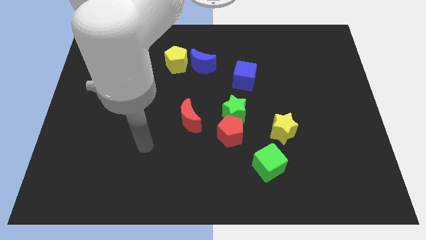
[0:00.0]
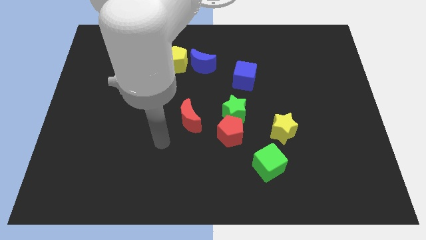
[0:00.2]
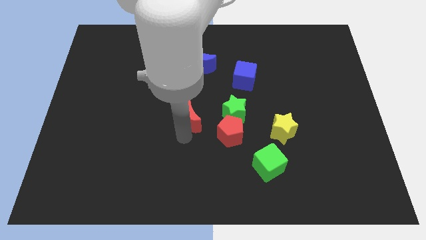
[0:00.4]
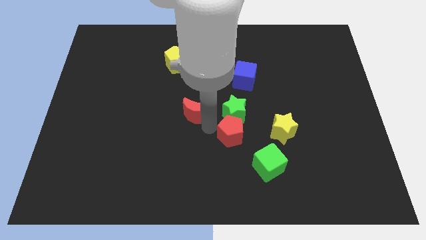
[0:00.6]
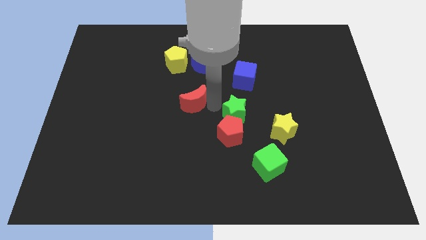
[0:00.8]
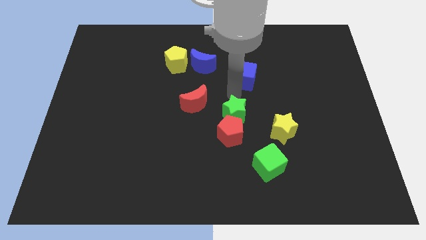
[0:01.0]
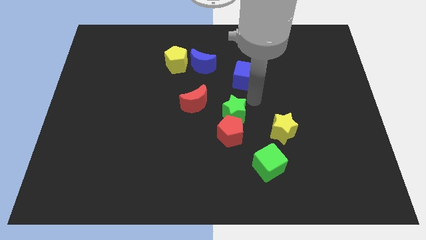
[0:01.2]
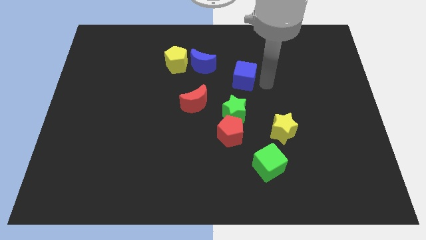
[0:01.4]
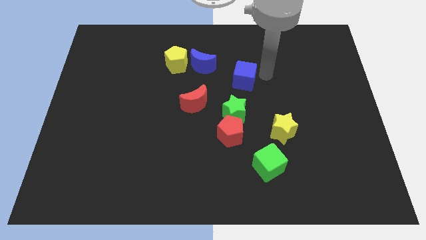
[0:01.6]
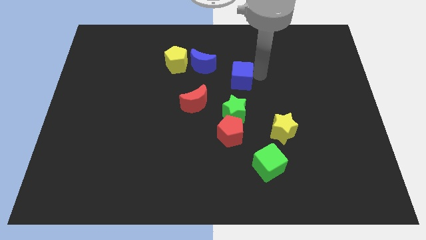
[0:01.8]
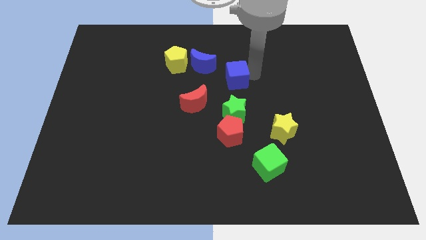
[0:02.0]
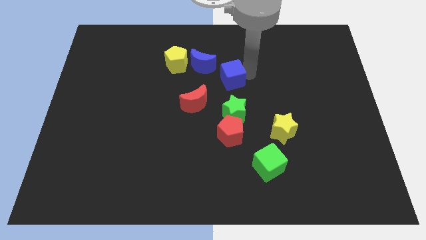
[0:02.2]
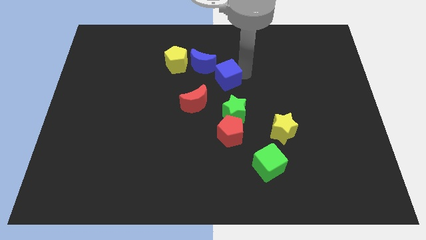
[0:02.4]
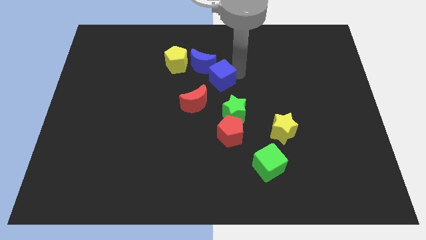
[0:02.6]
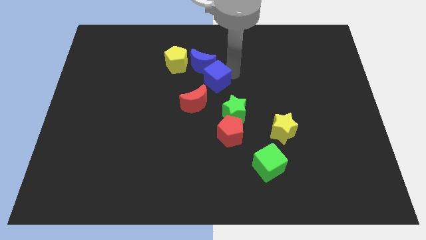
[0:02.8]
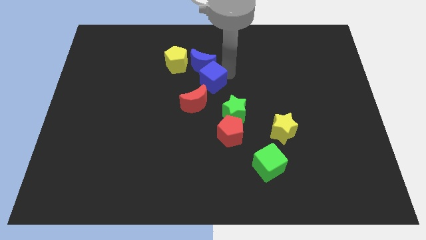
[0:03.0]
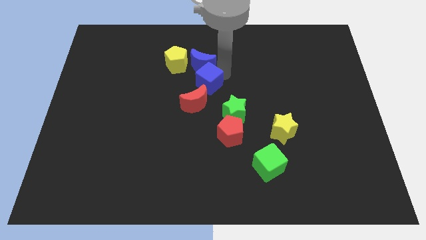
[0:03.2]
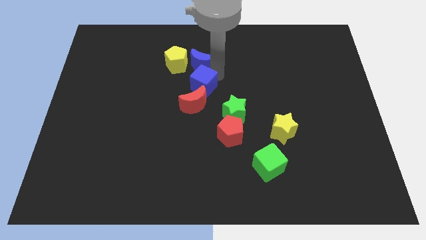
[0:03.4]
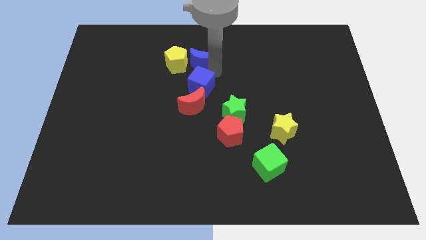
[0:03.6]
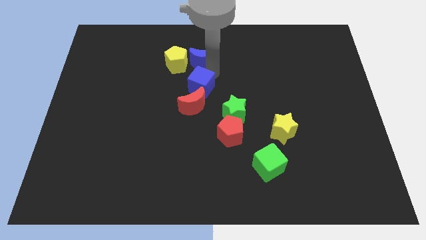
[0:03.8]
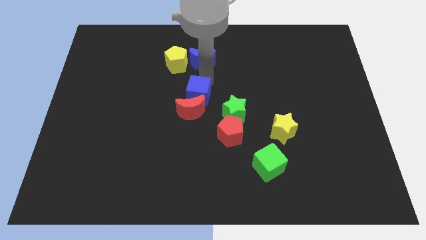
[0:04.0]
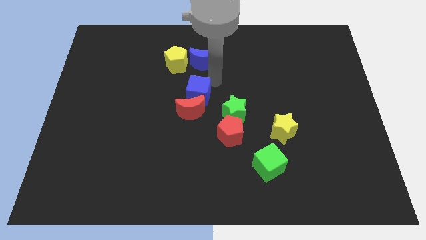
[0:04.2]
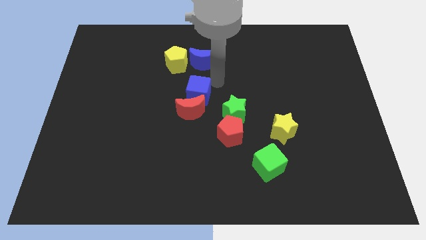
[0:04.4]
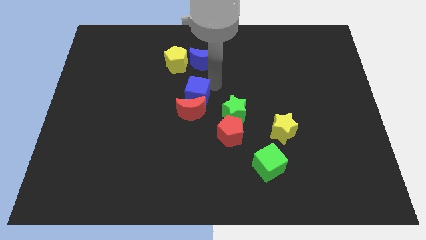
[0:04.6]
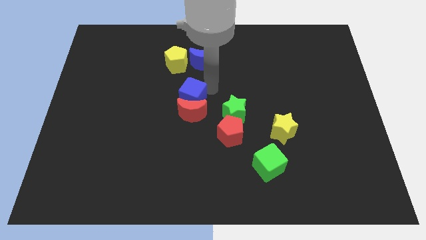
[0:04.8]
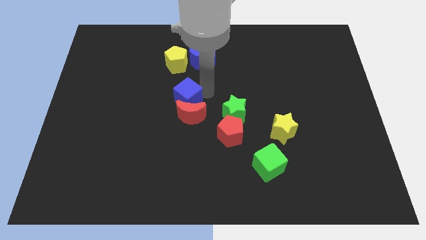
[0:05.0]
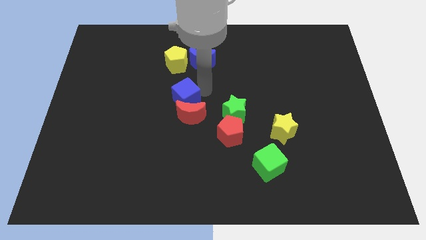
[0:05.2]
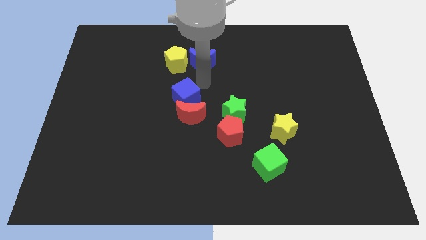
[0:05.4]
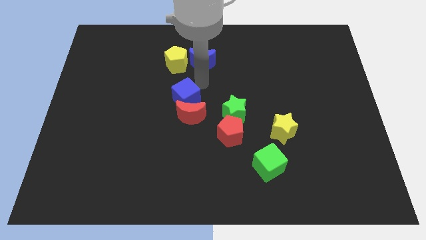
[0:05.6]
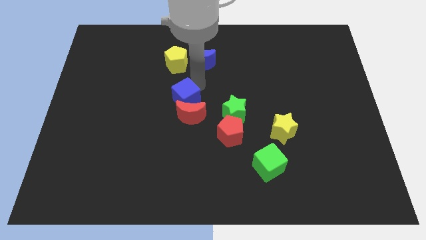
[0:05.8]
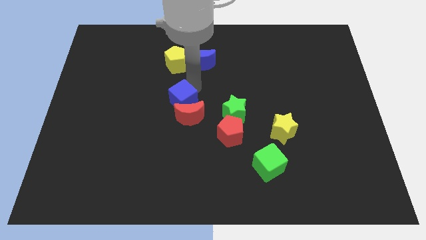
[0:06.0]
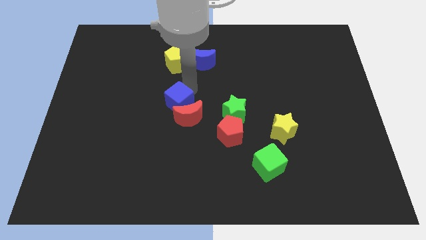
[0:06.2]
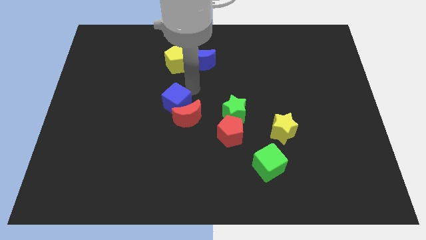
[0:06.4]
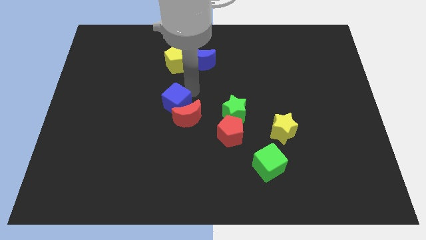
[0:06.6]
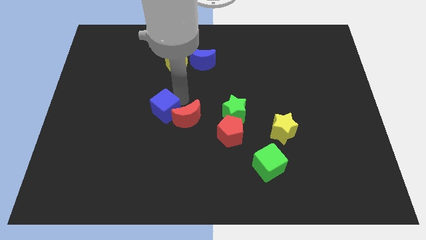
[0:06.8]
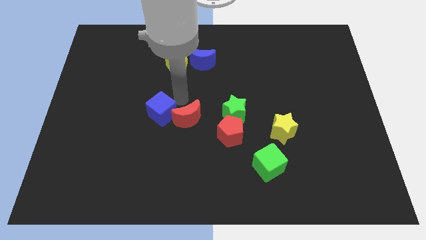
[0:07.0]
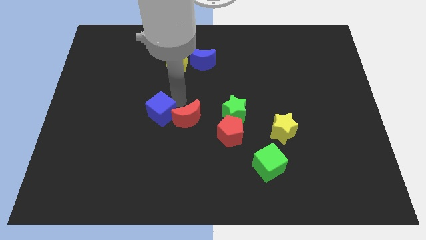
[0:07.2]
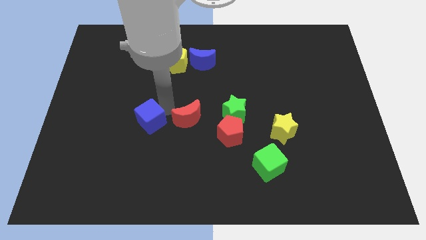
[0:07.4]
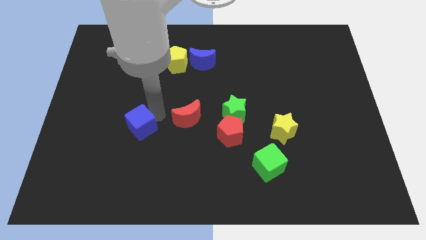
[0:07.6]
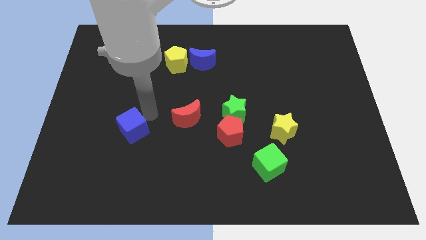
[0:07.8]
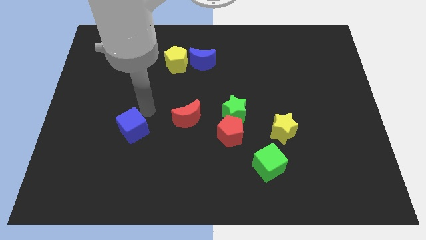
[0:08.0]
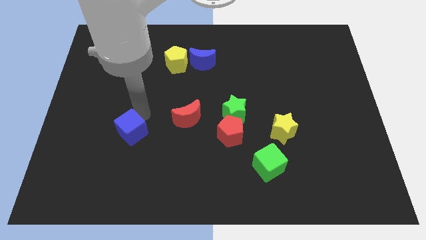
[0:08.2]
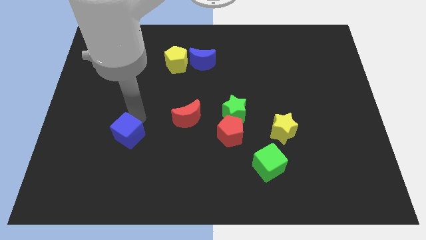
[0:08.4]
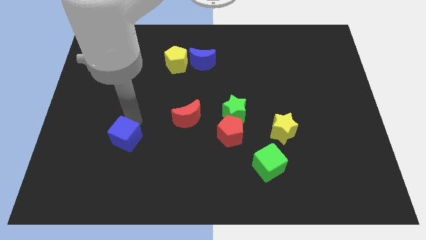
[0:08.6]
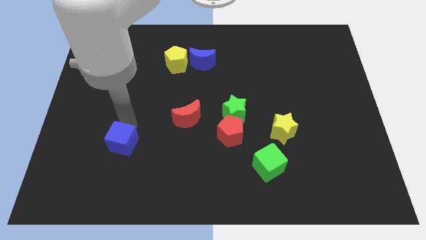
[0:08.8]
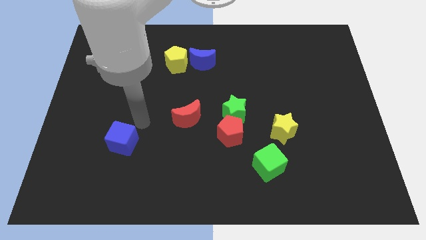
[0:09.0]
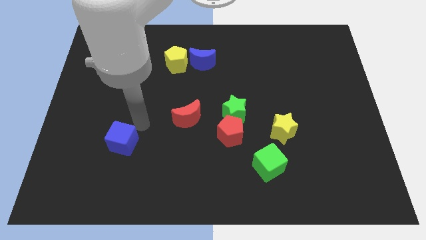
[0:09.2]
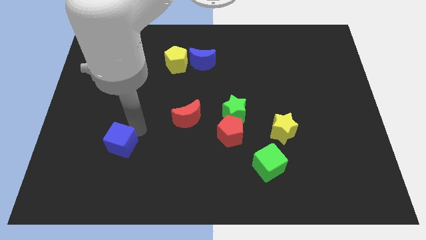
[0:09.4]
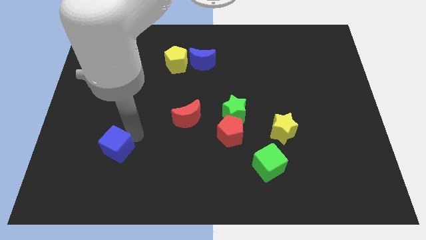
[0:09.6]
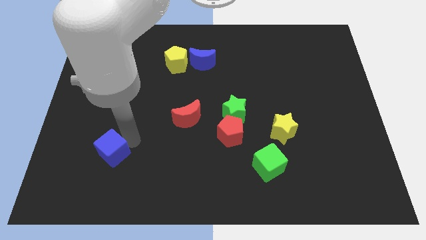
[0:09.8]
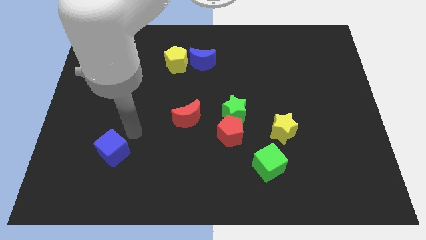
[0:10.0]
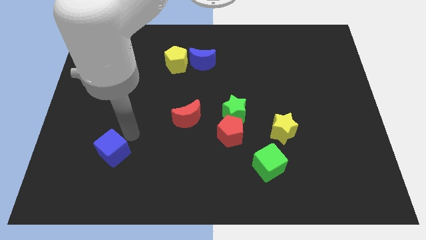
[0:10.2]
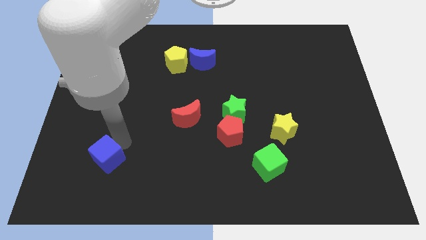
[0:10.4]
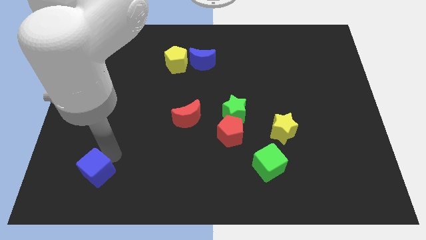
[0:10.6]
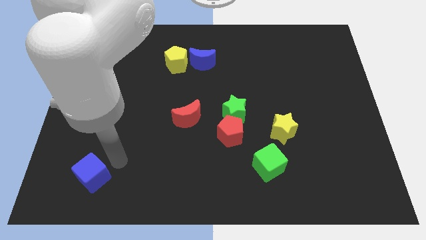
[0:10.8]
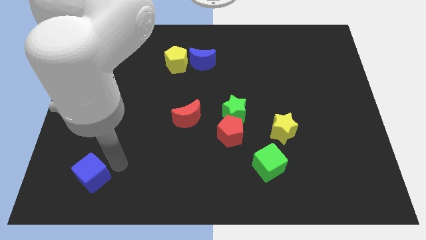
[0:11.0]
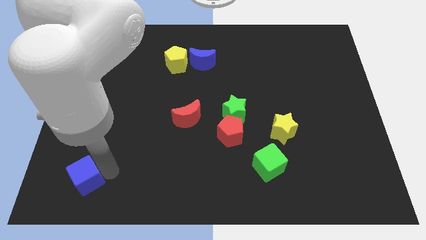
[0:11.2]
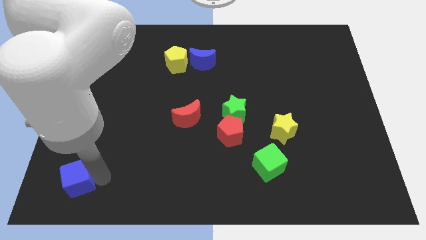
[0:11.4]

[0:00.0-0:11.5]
move the blue cube to the bottom left
